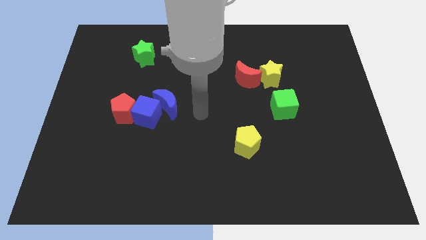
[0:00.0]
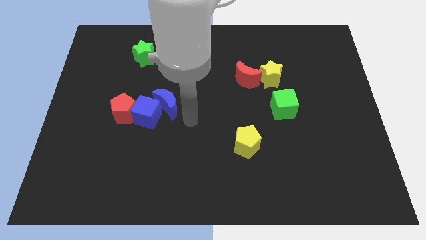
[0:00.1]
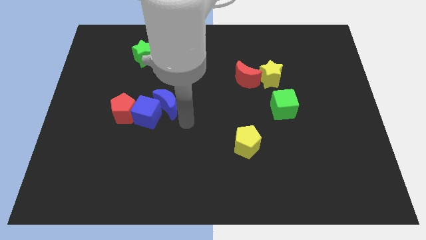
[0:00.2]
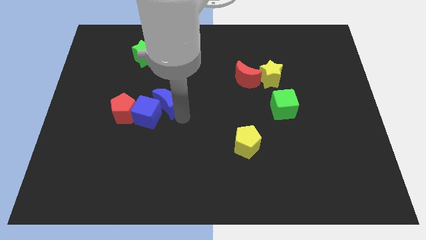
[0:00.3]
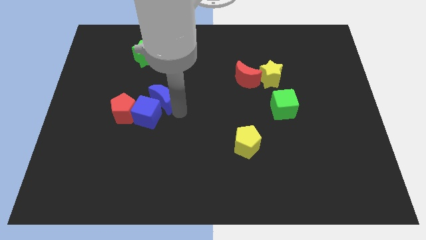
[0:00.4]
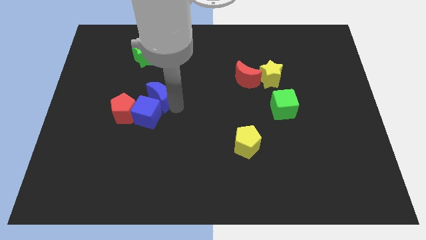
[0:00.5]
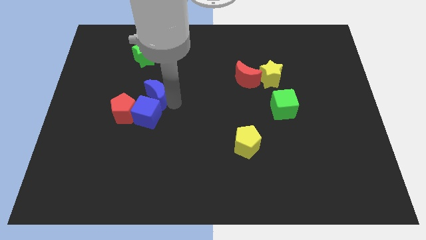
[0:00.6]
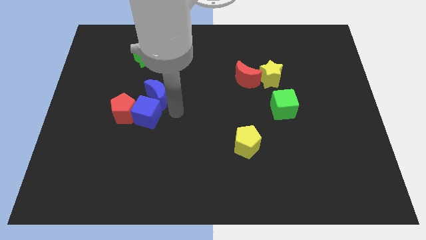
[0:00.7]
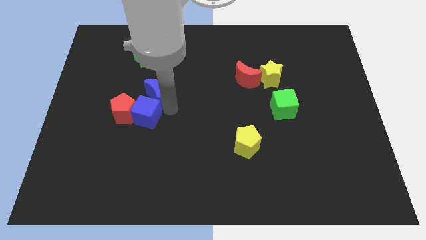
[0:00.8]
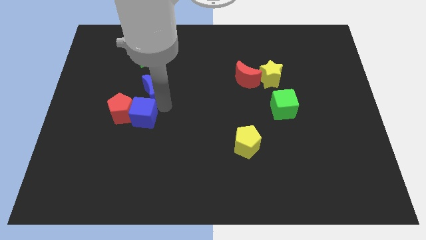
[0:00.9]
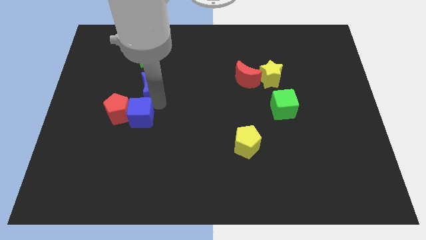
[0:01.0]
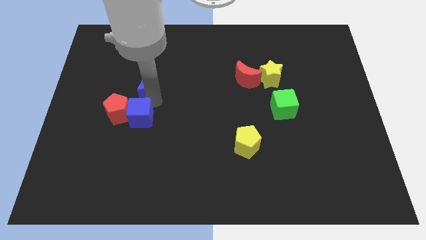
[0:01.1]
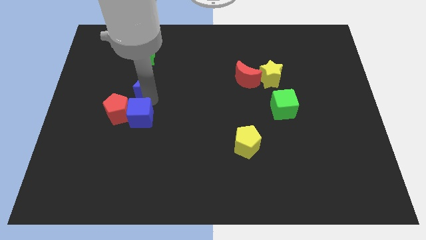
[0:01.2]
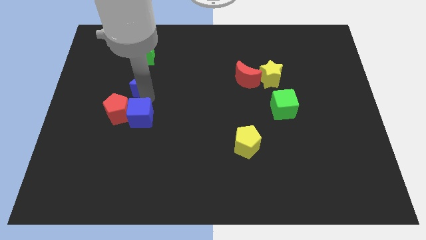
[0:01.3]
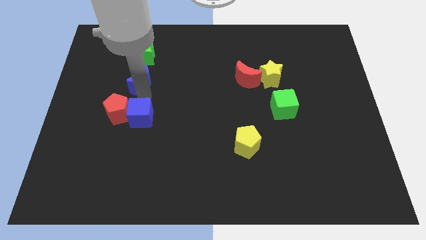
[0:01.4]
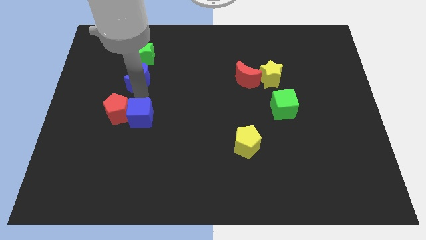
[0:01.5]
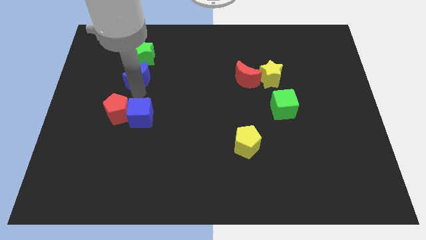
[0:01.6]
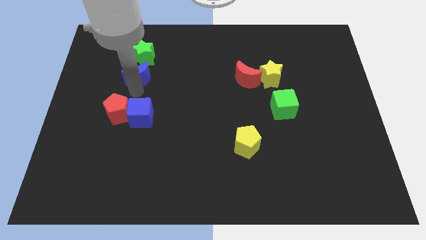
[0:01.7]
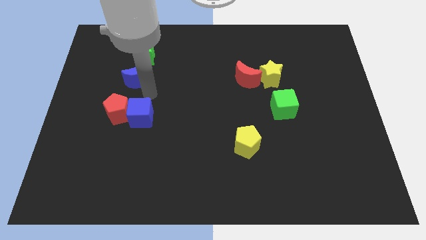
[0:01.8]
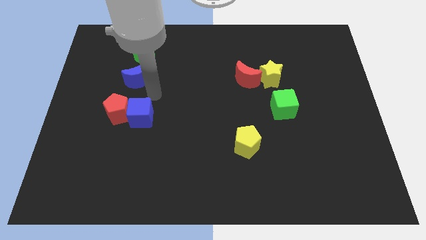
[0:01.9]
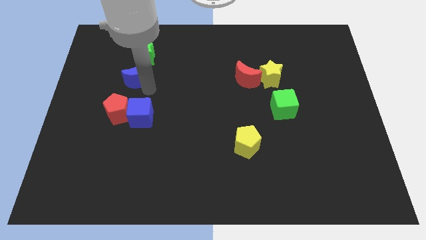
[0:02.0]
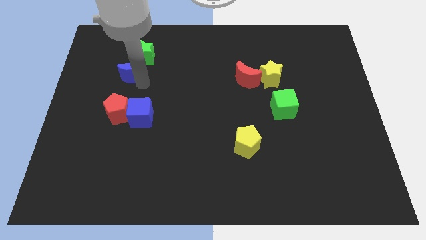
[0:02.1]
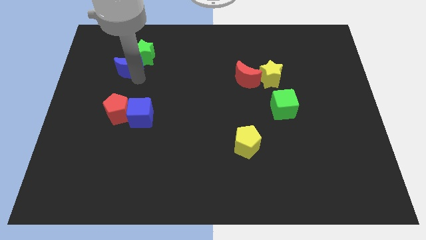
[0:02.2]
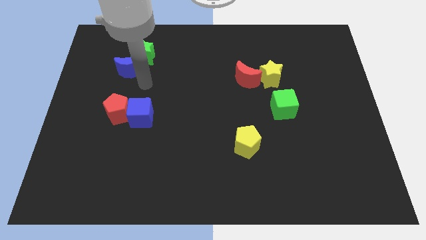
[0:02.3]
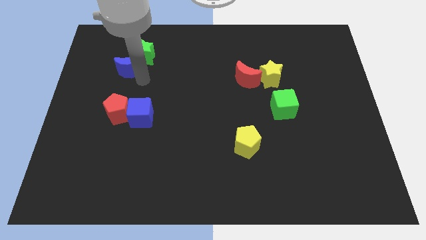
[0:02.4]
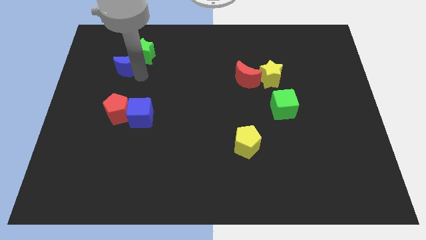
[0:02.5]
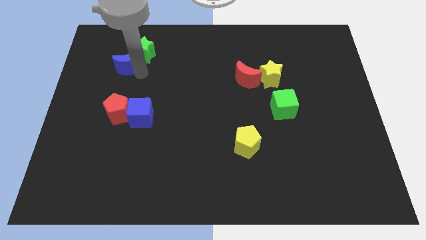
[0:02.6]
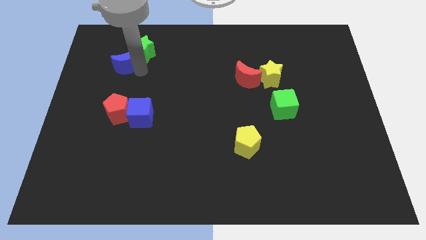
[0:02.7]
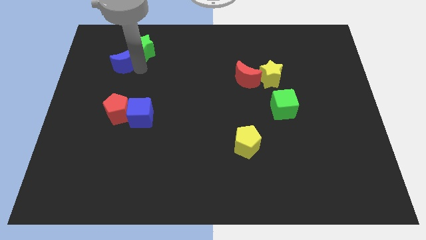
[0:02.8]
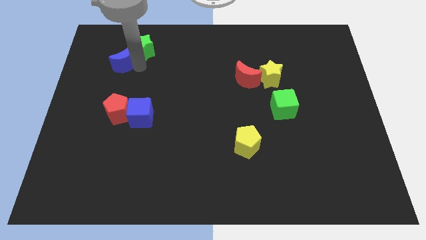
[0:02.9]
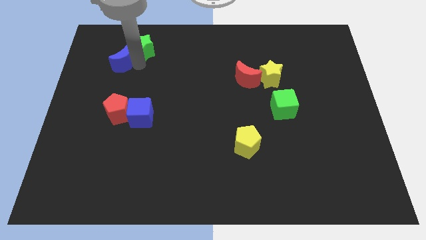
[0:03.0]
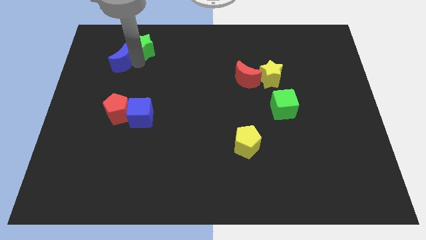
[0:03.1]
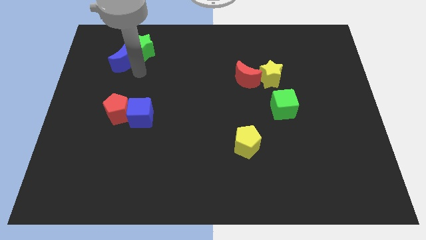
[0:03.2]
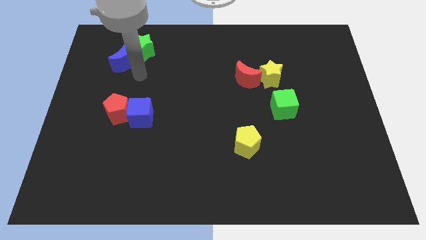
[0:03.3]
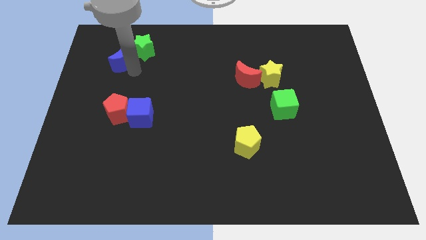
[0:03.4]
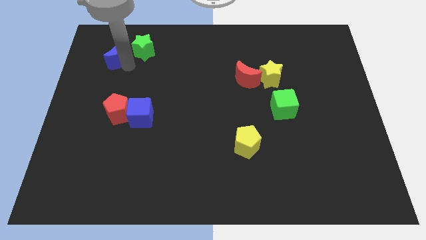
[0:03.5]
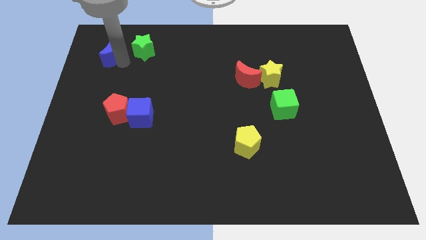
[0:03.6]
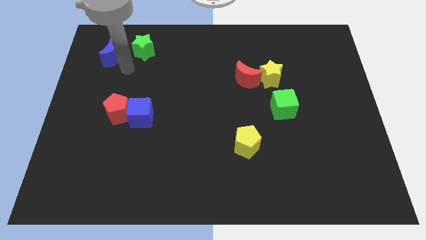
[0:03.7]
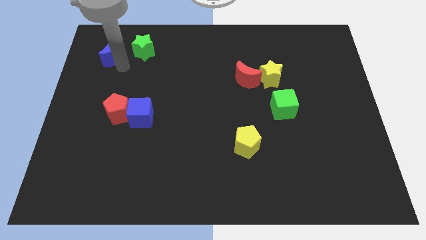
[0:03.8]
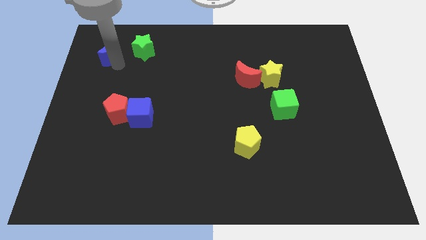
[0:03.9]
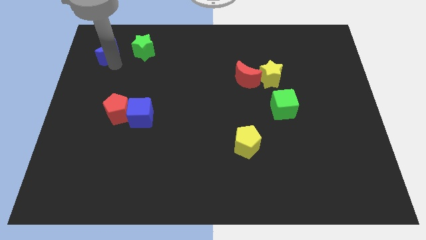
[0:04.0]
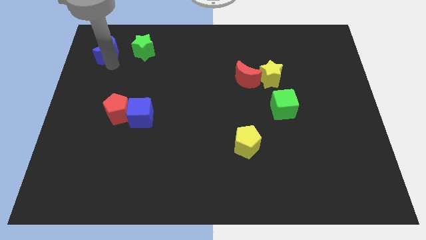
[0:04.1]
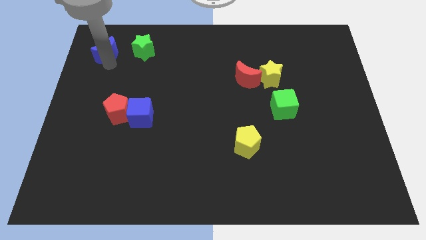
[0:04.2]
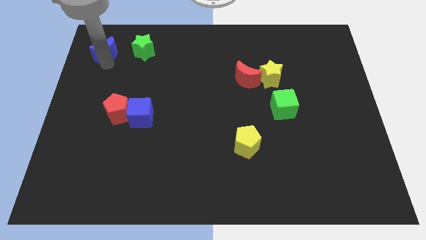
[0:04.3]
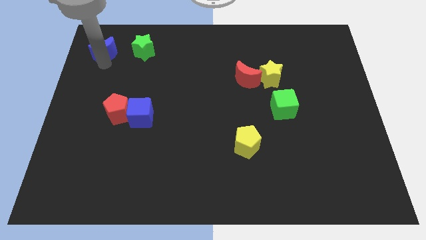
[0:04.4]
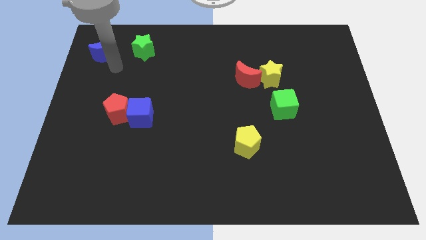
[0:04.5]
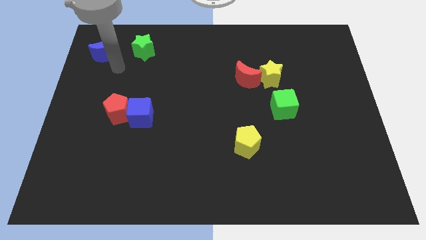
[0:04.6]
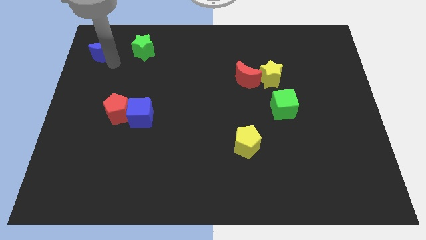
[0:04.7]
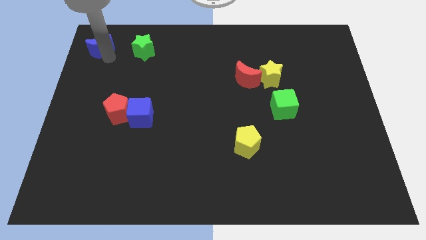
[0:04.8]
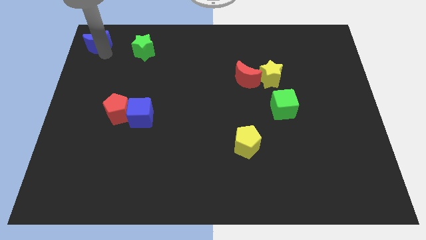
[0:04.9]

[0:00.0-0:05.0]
move the blue moon to the top left corner

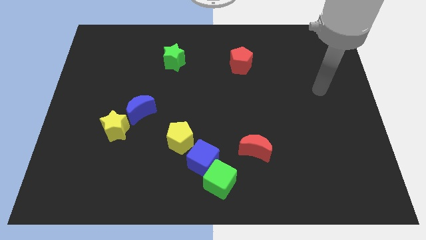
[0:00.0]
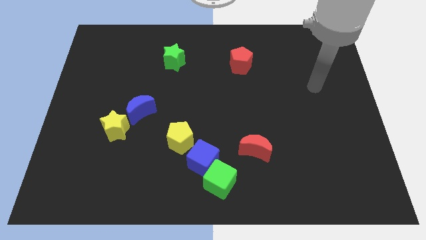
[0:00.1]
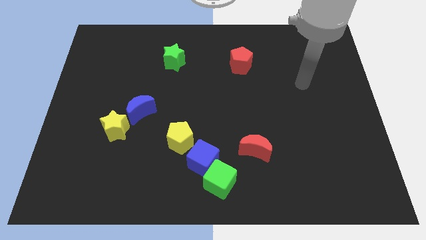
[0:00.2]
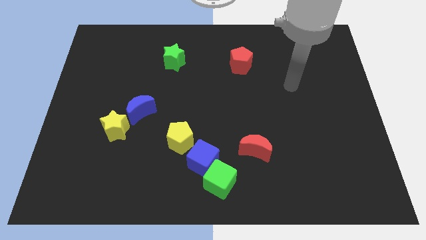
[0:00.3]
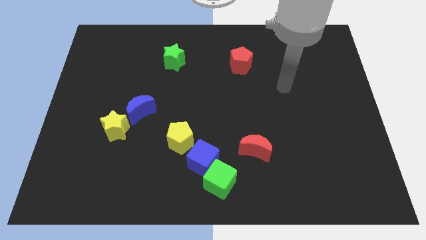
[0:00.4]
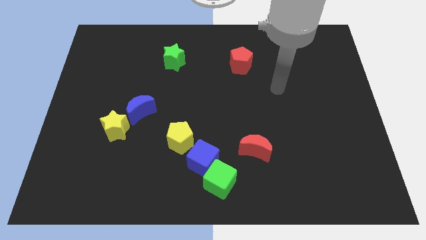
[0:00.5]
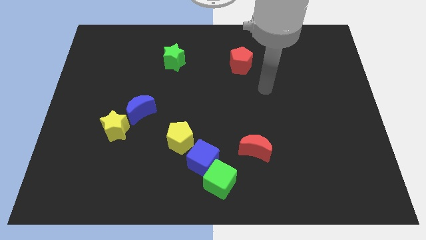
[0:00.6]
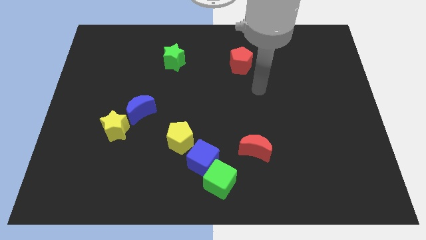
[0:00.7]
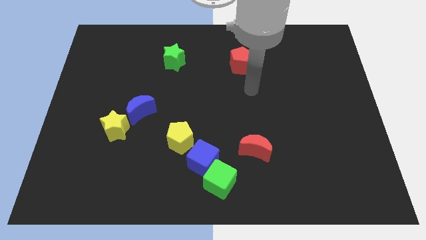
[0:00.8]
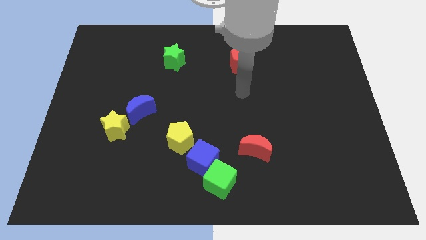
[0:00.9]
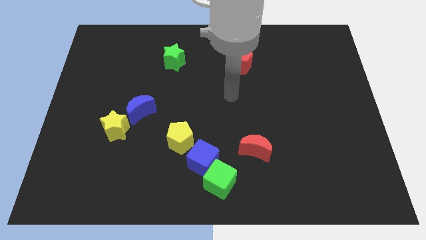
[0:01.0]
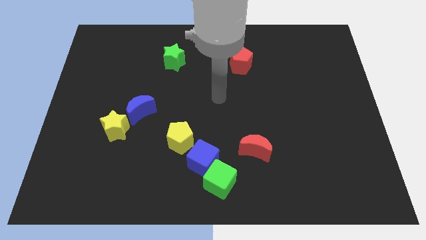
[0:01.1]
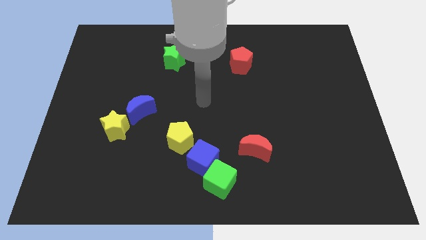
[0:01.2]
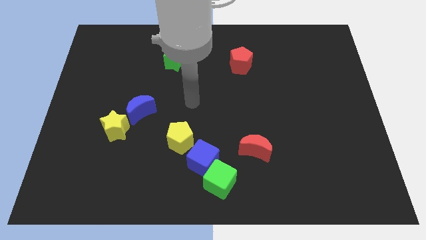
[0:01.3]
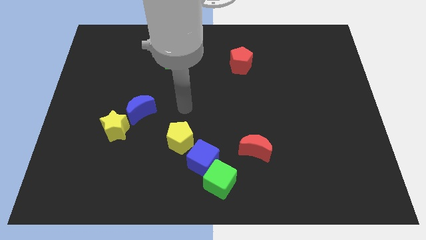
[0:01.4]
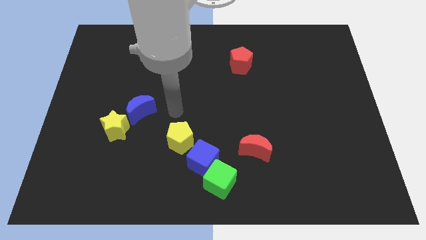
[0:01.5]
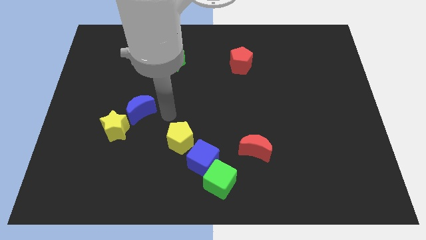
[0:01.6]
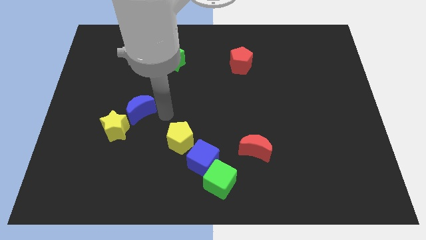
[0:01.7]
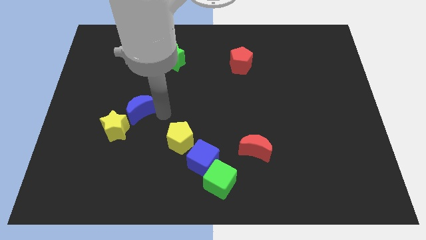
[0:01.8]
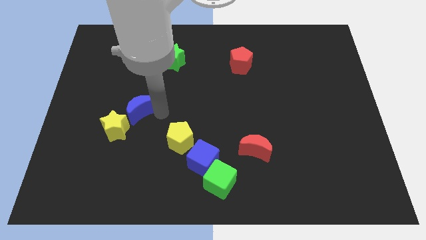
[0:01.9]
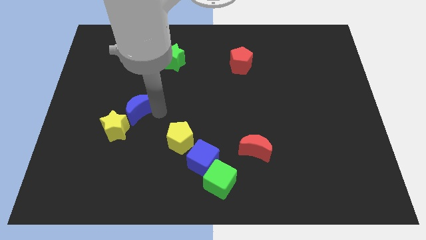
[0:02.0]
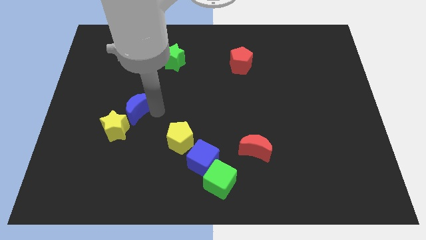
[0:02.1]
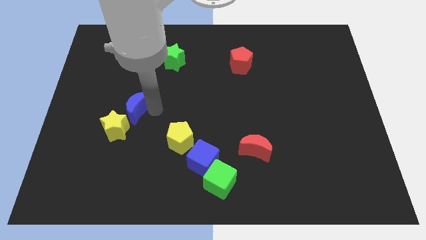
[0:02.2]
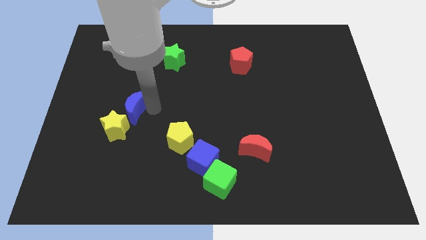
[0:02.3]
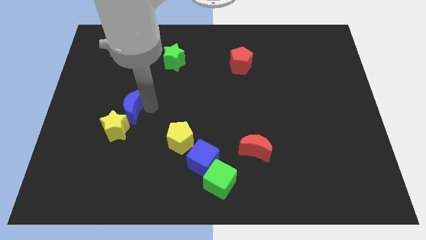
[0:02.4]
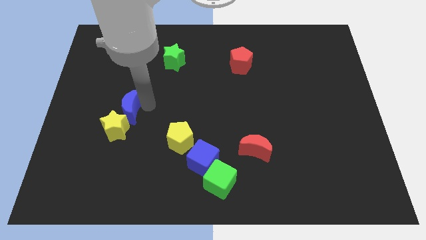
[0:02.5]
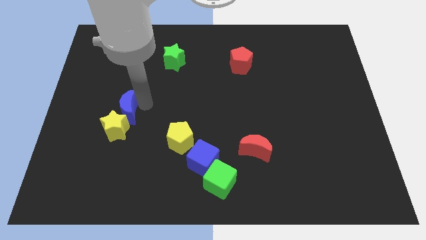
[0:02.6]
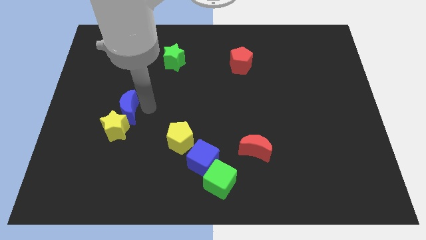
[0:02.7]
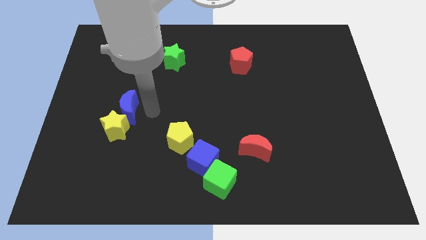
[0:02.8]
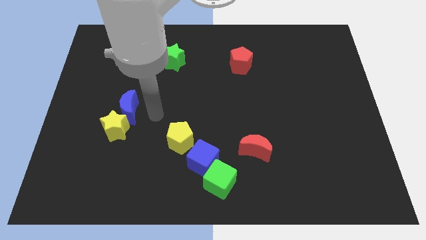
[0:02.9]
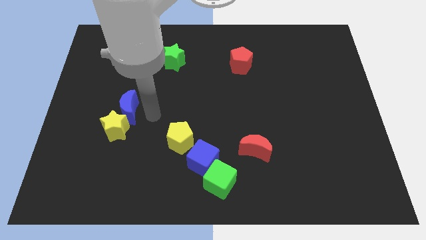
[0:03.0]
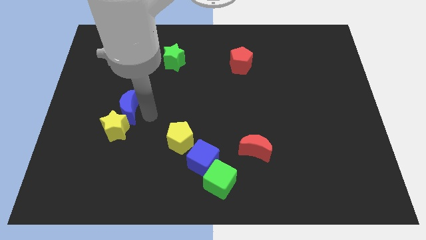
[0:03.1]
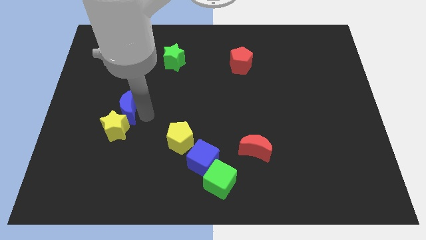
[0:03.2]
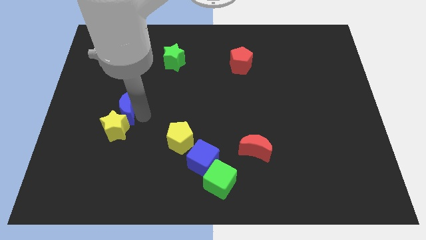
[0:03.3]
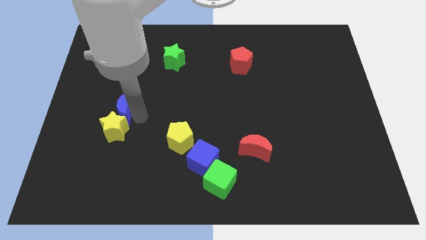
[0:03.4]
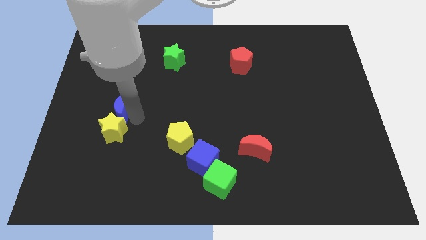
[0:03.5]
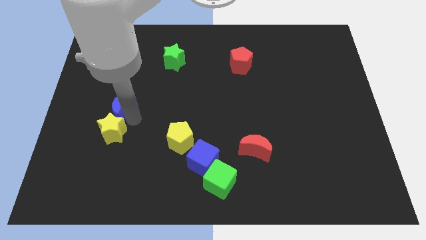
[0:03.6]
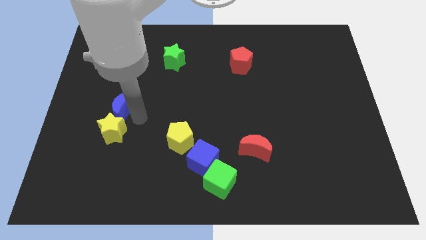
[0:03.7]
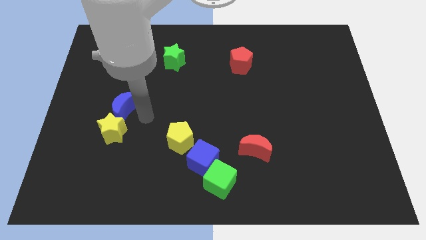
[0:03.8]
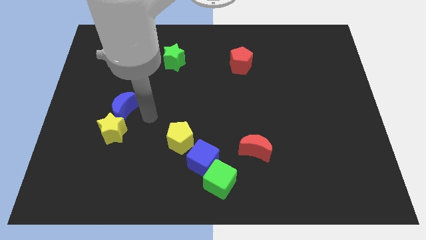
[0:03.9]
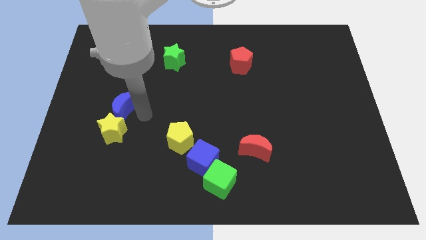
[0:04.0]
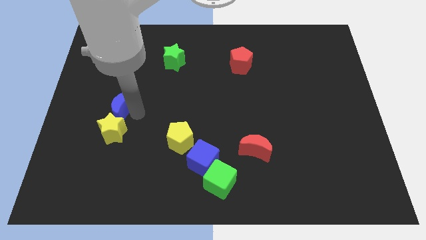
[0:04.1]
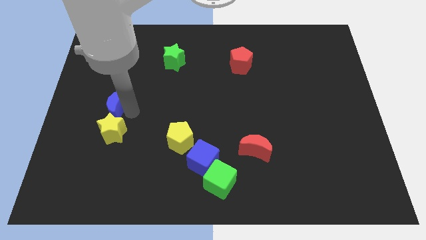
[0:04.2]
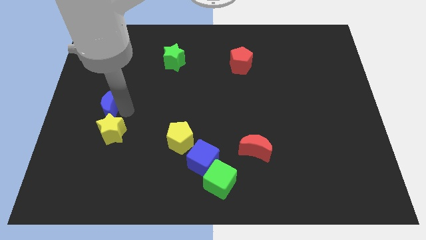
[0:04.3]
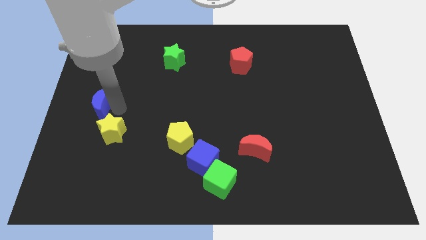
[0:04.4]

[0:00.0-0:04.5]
push the blue moon to the left side of the board
